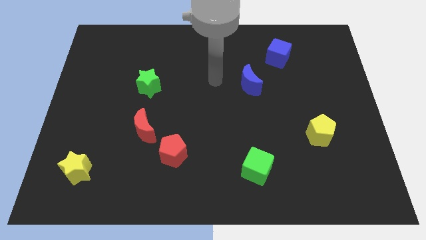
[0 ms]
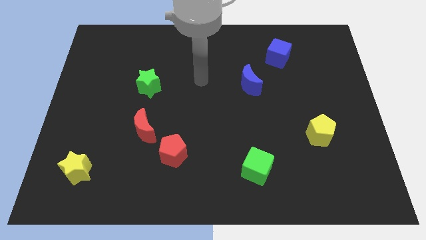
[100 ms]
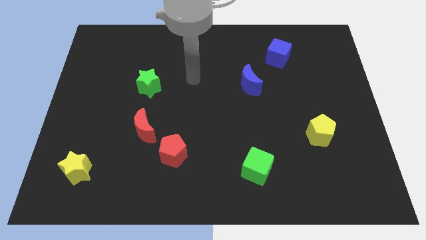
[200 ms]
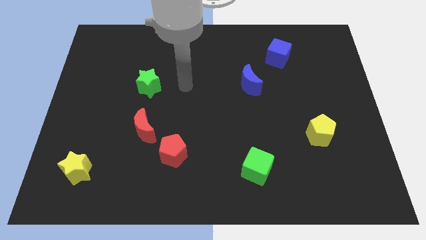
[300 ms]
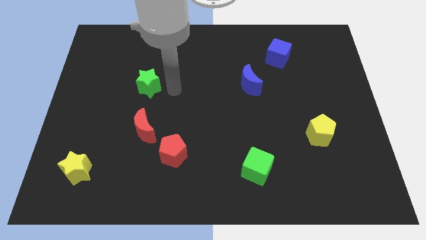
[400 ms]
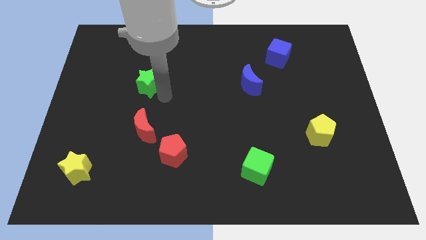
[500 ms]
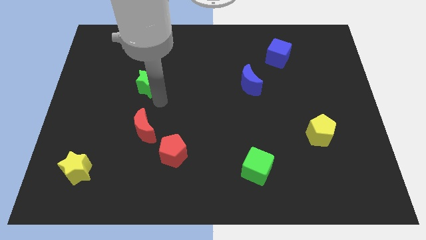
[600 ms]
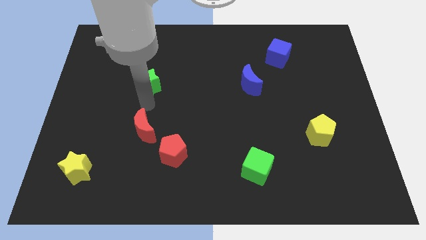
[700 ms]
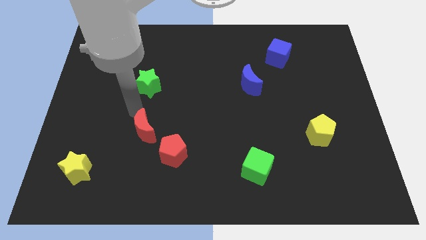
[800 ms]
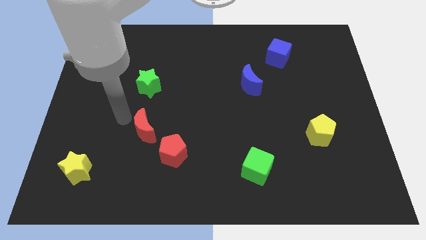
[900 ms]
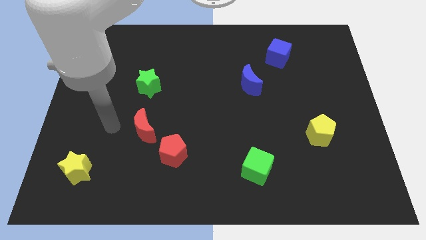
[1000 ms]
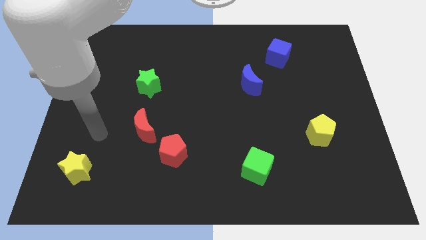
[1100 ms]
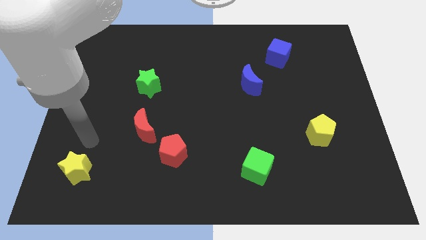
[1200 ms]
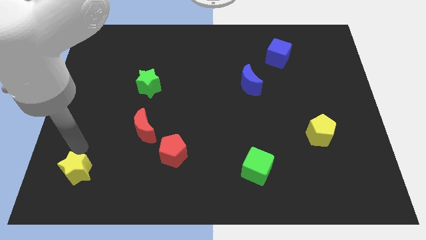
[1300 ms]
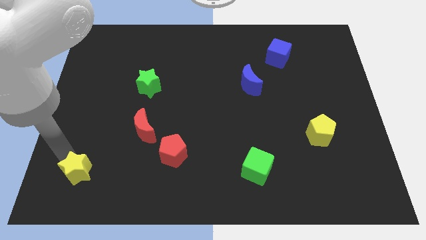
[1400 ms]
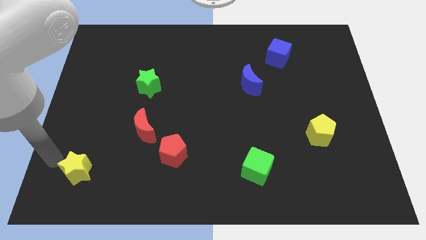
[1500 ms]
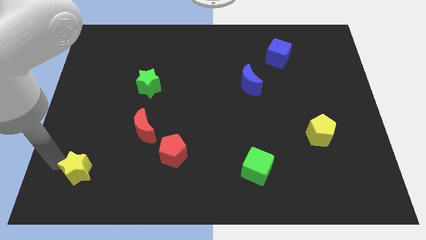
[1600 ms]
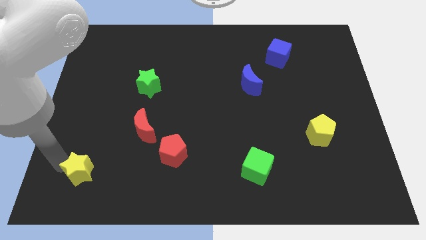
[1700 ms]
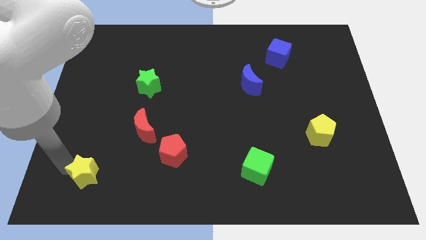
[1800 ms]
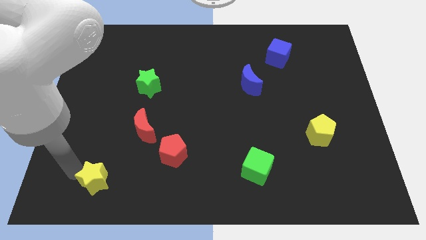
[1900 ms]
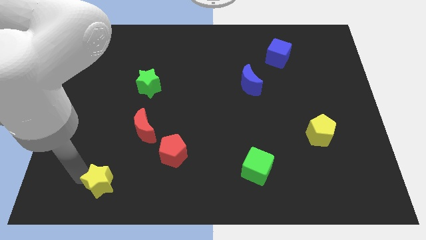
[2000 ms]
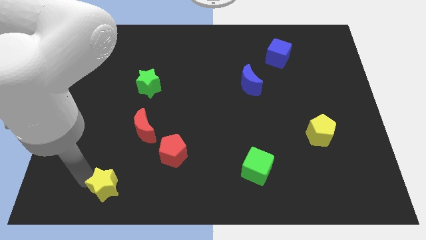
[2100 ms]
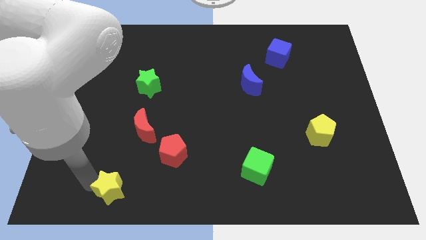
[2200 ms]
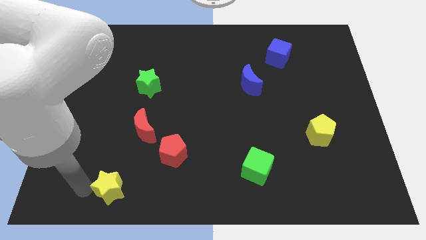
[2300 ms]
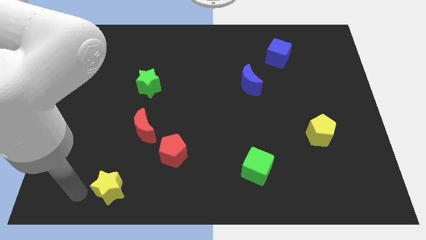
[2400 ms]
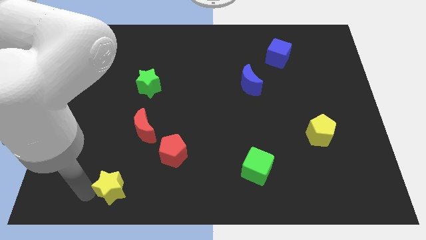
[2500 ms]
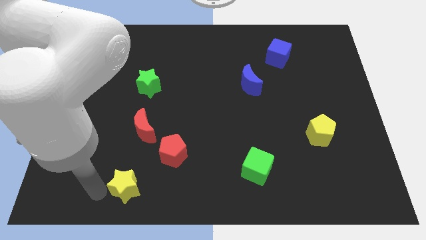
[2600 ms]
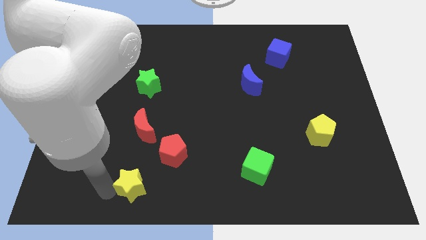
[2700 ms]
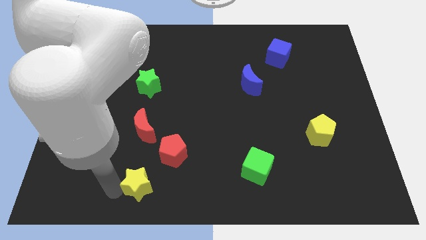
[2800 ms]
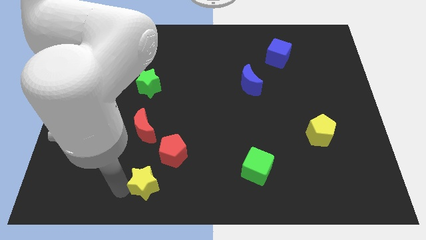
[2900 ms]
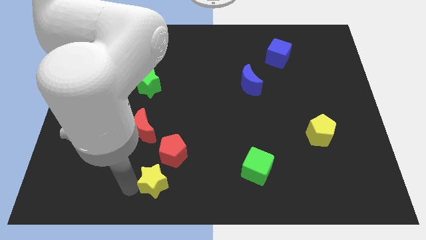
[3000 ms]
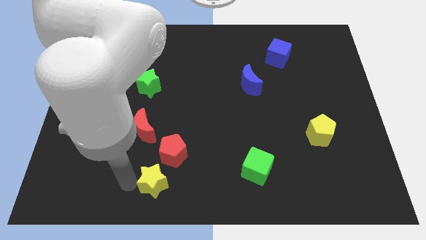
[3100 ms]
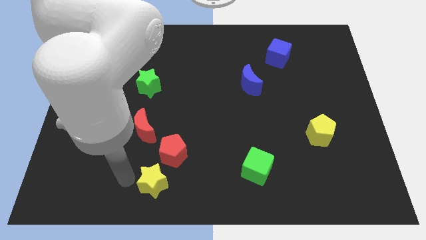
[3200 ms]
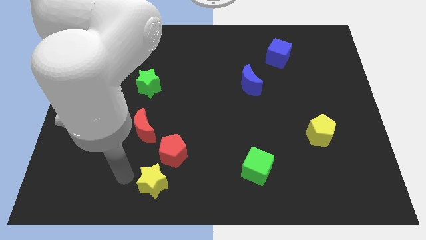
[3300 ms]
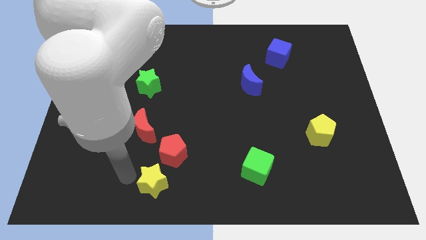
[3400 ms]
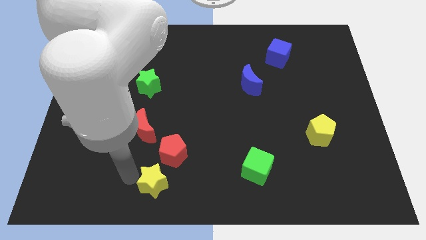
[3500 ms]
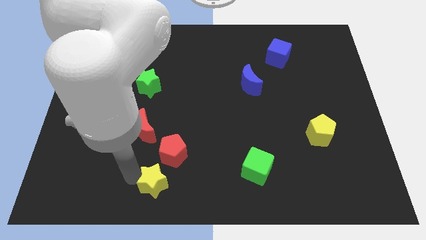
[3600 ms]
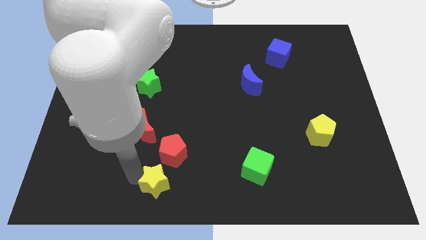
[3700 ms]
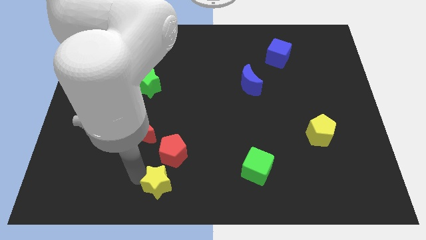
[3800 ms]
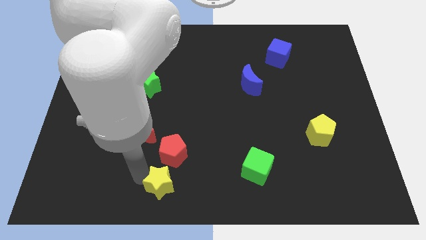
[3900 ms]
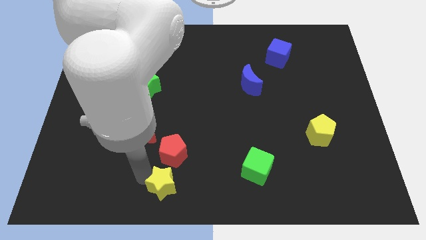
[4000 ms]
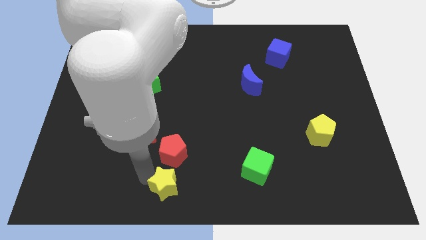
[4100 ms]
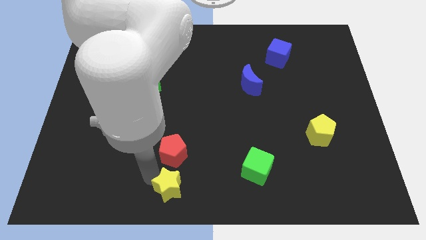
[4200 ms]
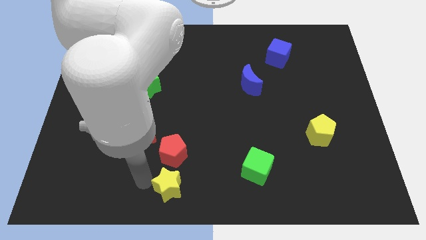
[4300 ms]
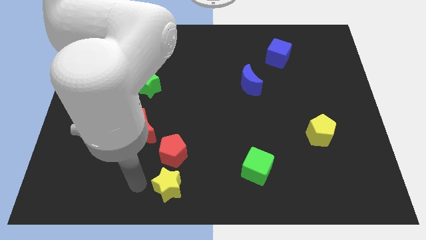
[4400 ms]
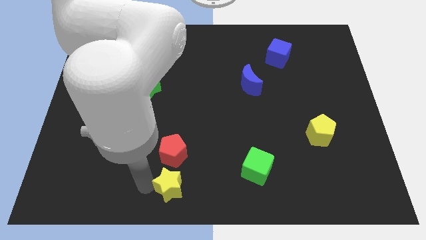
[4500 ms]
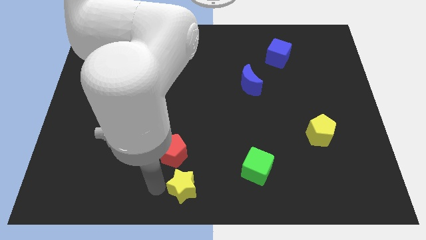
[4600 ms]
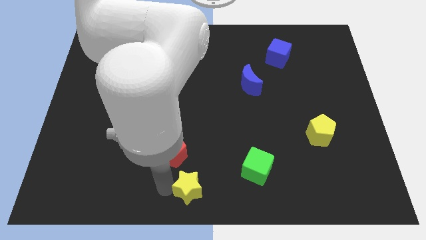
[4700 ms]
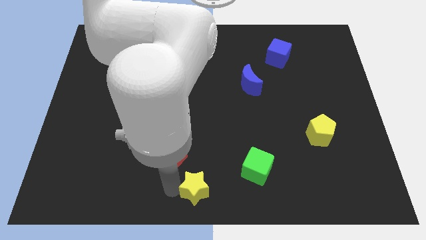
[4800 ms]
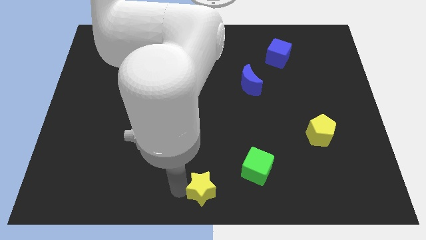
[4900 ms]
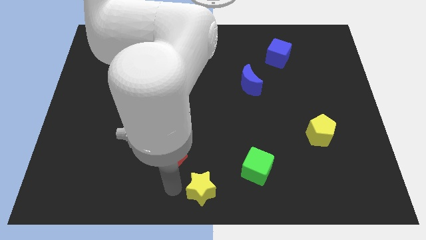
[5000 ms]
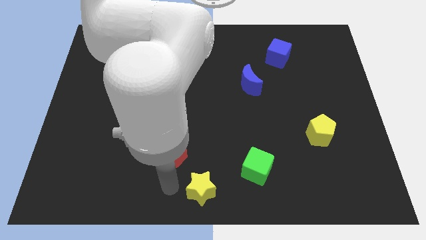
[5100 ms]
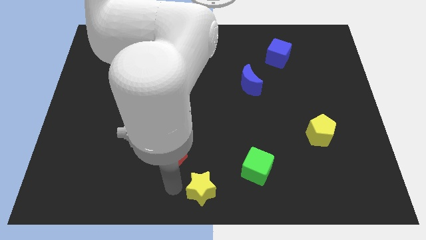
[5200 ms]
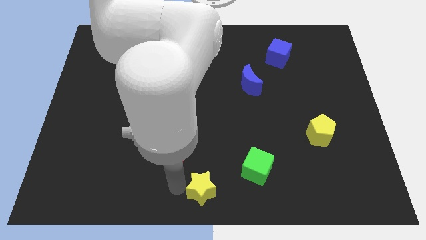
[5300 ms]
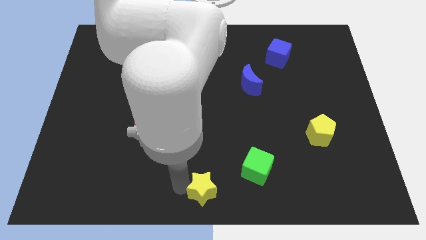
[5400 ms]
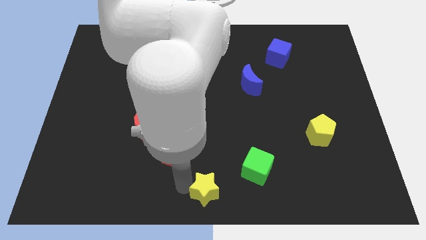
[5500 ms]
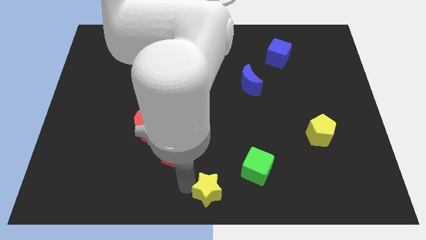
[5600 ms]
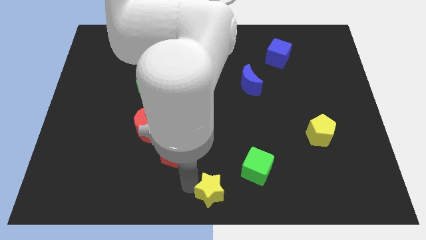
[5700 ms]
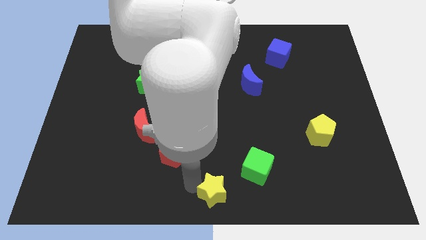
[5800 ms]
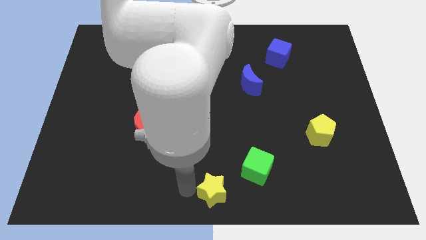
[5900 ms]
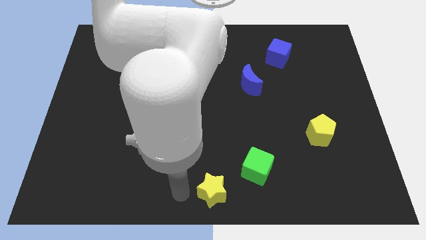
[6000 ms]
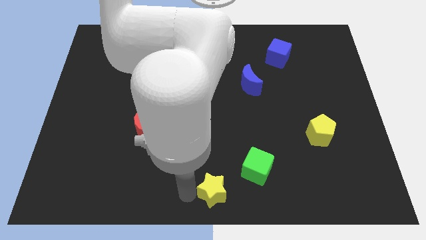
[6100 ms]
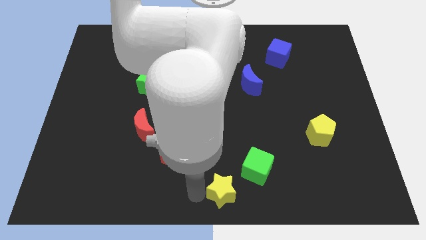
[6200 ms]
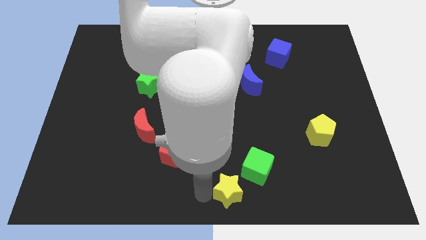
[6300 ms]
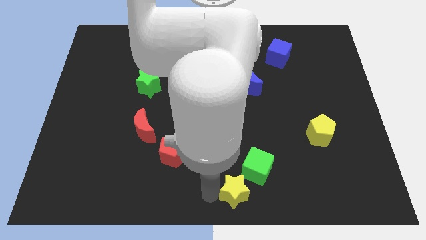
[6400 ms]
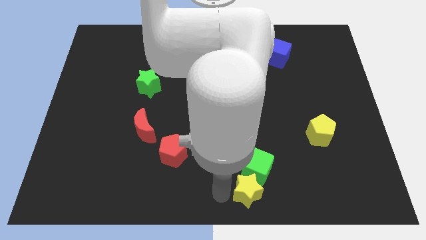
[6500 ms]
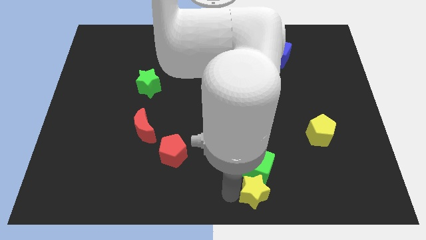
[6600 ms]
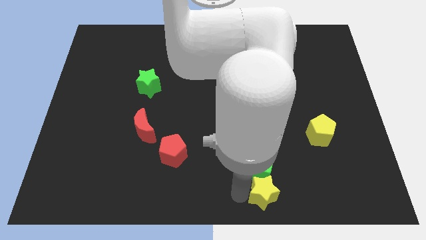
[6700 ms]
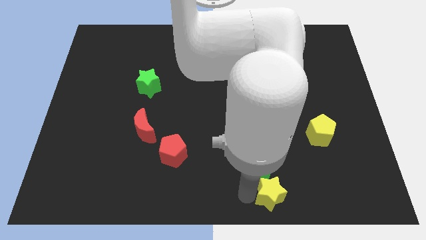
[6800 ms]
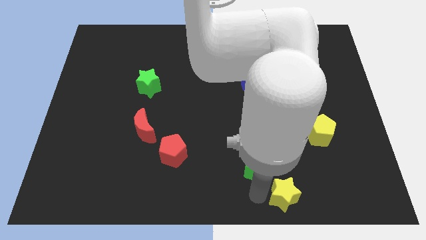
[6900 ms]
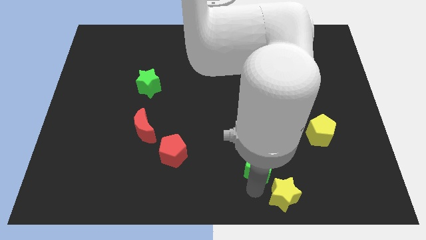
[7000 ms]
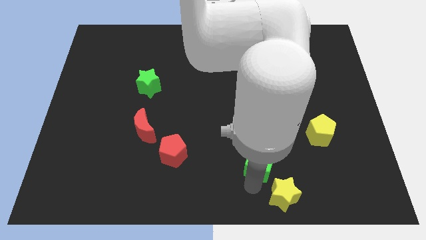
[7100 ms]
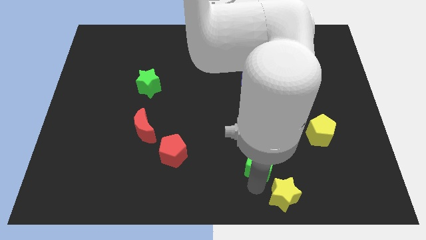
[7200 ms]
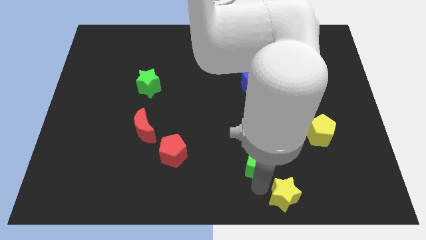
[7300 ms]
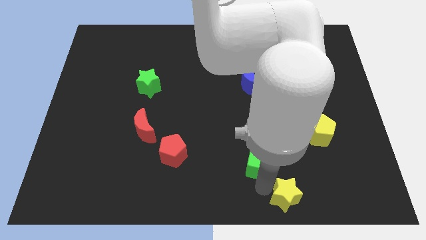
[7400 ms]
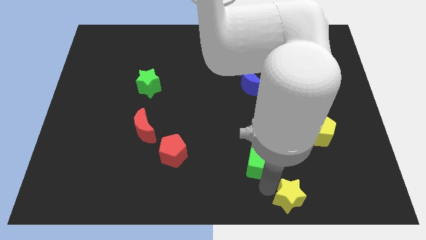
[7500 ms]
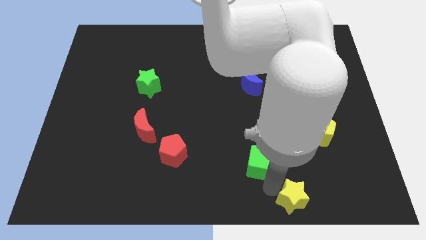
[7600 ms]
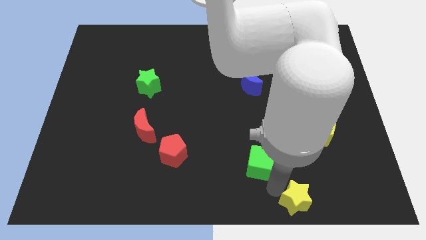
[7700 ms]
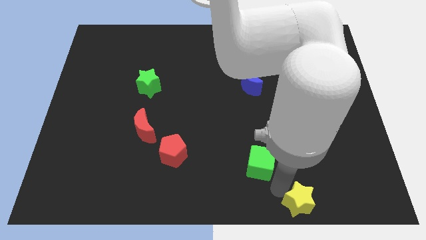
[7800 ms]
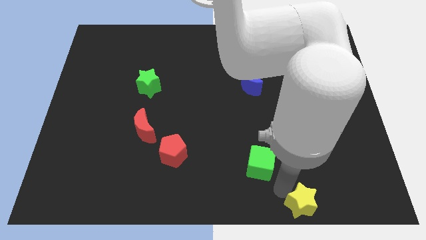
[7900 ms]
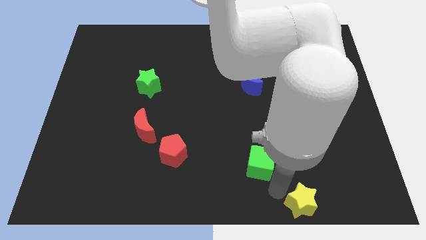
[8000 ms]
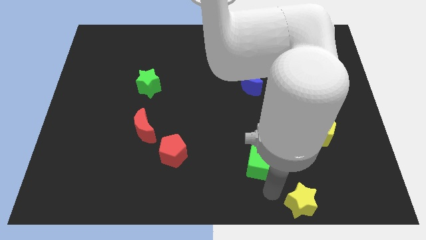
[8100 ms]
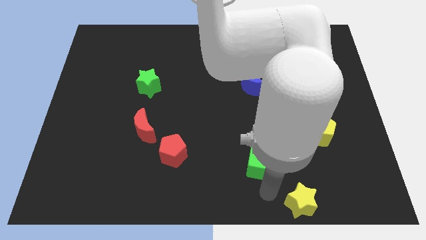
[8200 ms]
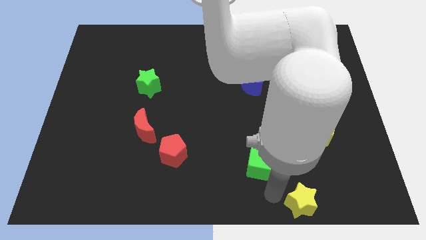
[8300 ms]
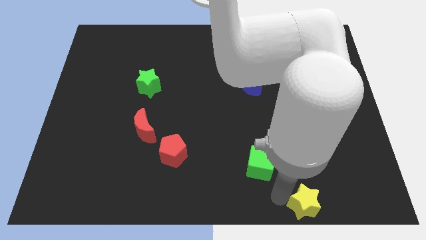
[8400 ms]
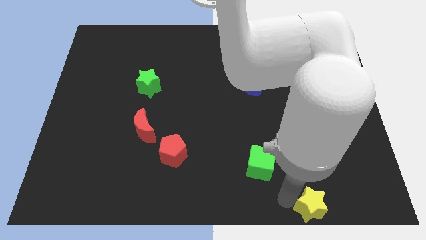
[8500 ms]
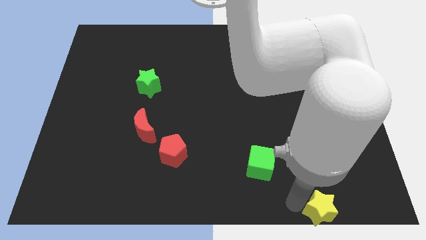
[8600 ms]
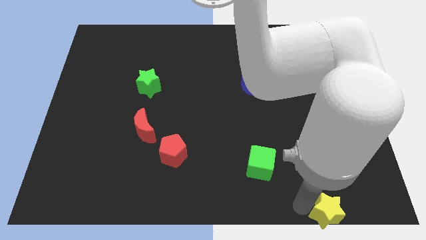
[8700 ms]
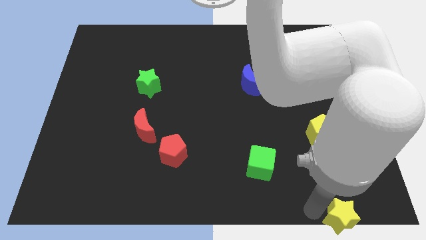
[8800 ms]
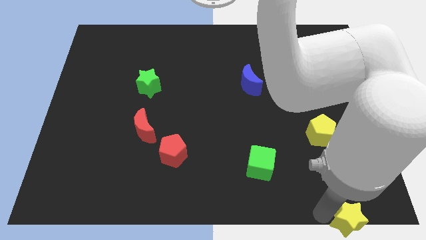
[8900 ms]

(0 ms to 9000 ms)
push the yellow star to the bottom right of the board
